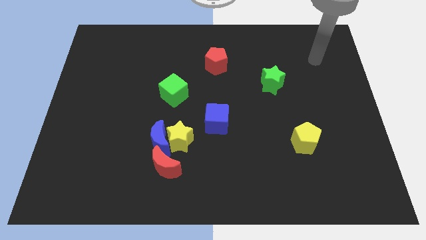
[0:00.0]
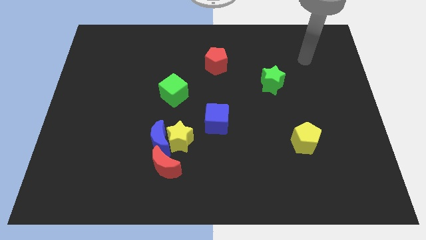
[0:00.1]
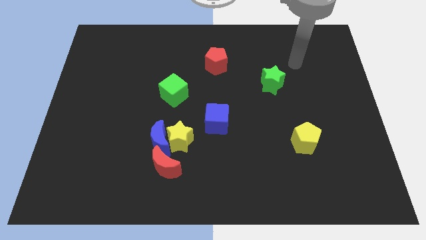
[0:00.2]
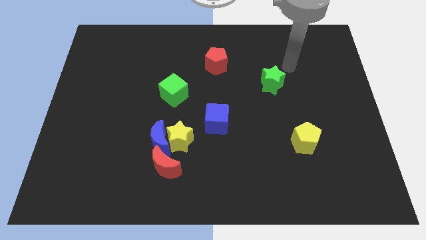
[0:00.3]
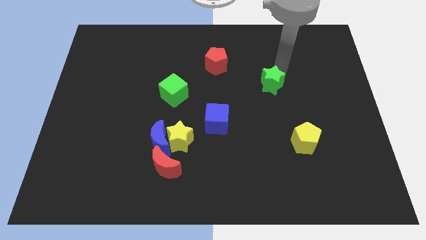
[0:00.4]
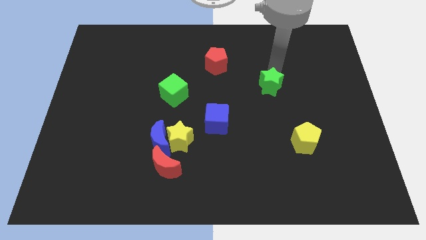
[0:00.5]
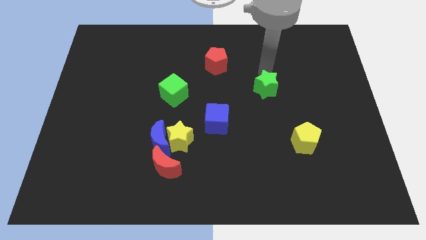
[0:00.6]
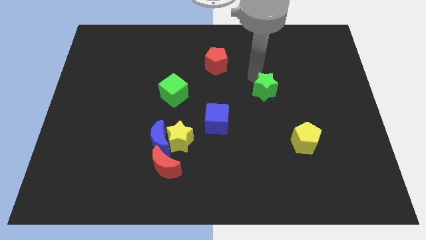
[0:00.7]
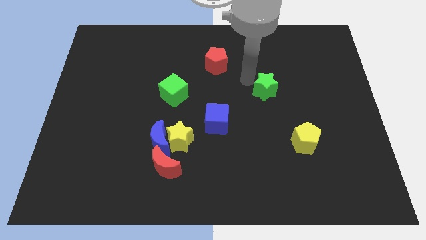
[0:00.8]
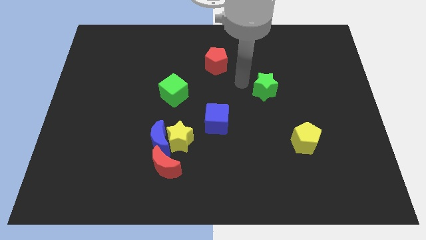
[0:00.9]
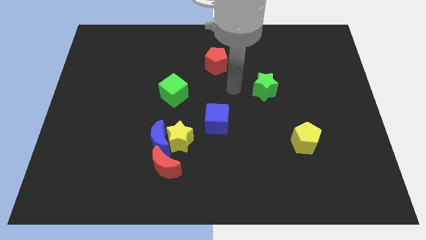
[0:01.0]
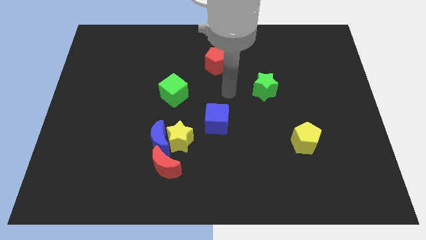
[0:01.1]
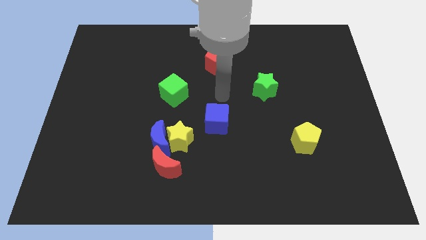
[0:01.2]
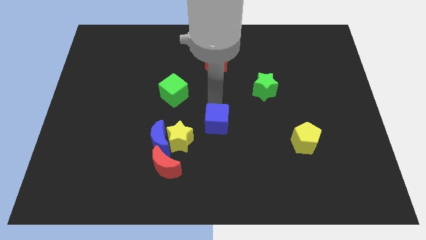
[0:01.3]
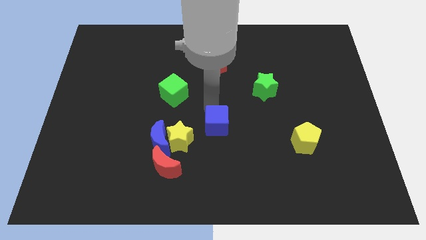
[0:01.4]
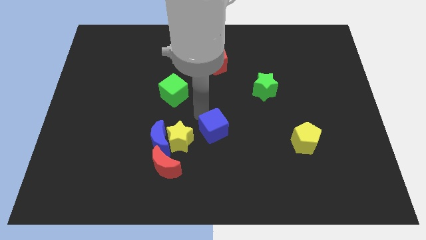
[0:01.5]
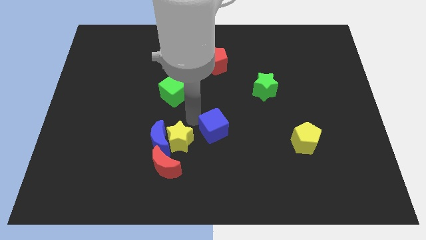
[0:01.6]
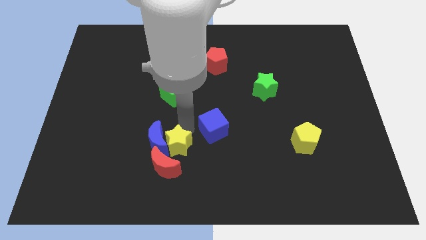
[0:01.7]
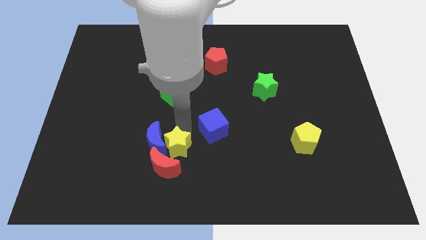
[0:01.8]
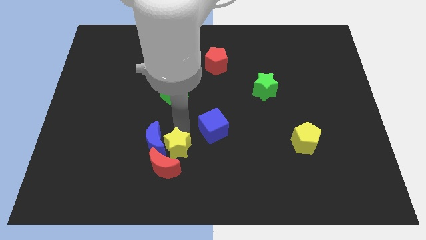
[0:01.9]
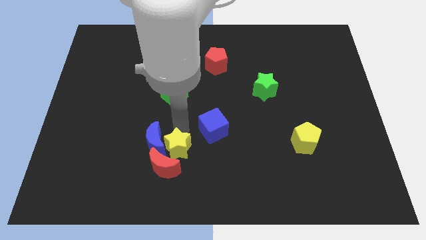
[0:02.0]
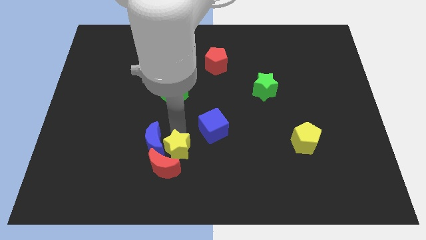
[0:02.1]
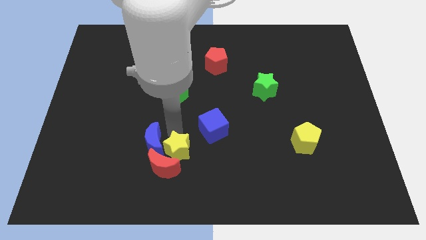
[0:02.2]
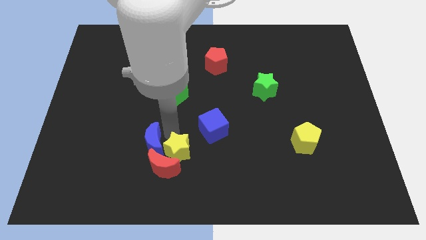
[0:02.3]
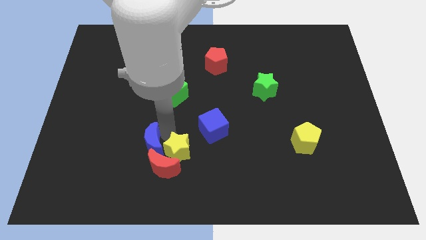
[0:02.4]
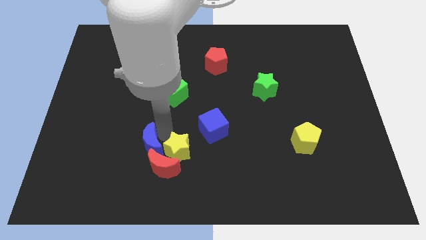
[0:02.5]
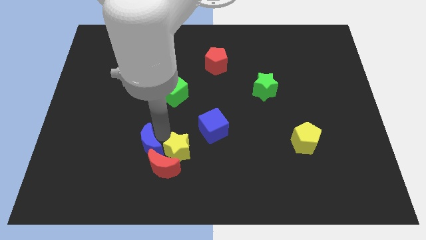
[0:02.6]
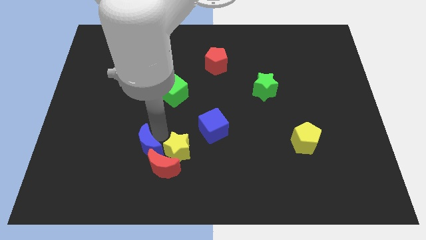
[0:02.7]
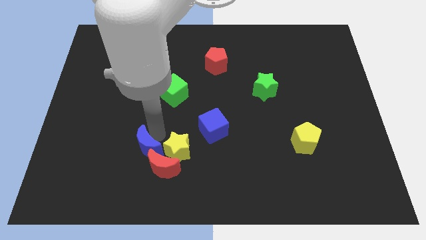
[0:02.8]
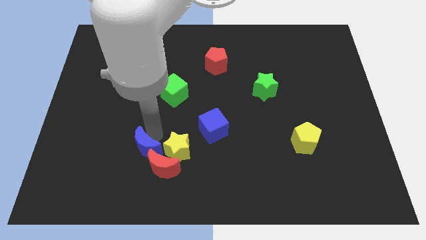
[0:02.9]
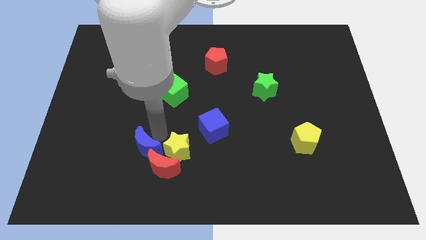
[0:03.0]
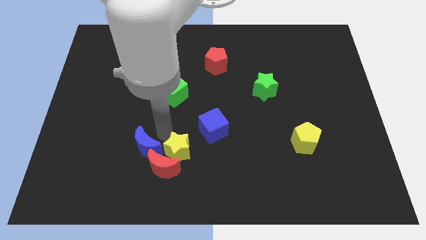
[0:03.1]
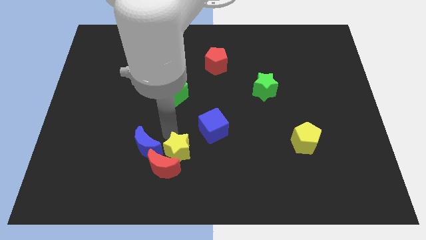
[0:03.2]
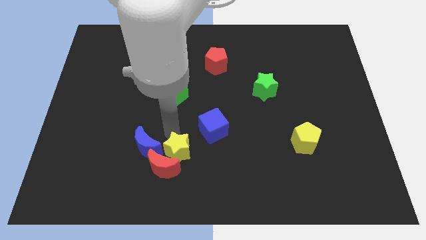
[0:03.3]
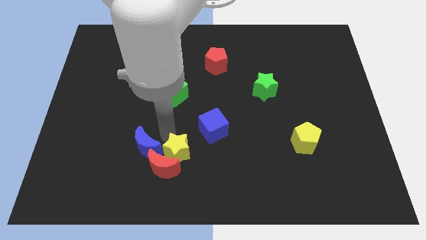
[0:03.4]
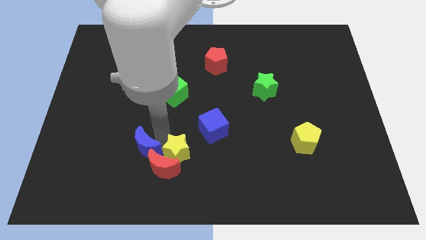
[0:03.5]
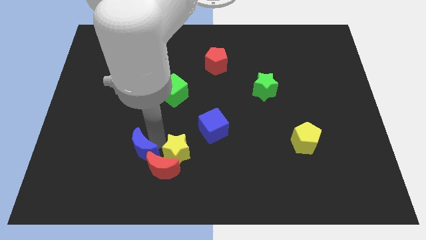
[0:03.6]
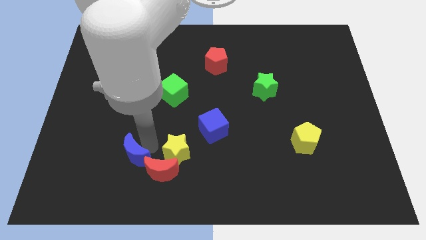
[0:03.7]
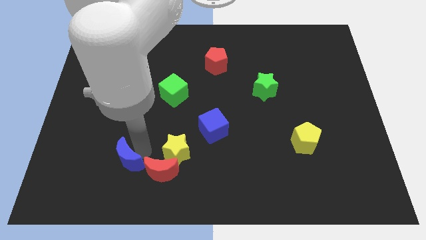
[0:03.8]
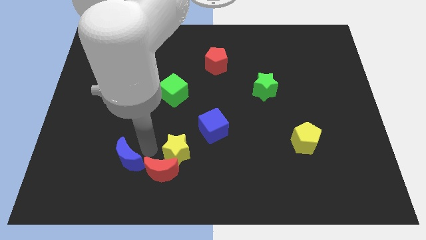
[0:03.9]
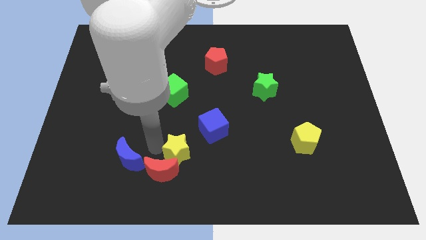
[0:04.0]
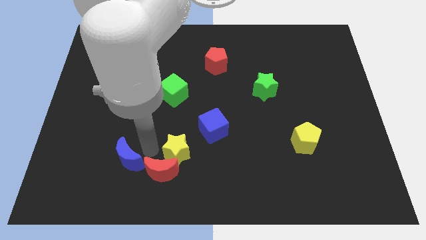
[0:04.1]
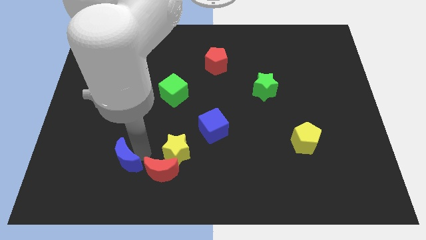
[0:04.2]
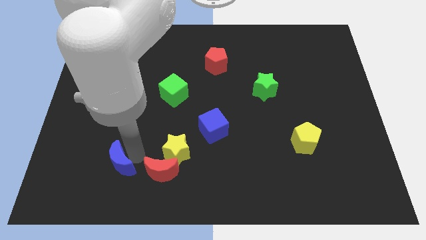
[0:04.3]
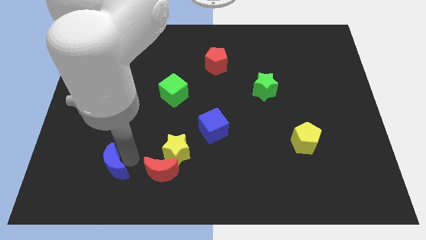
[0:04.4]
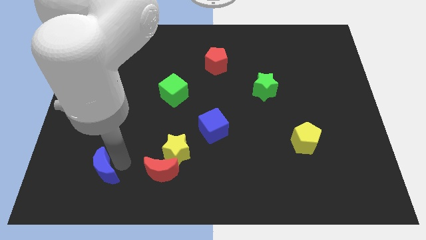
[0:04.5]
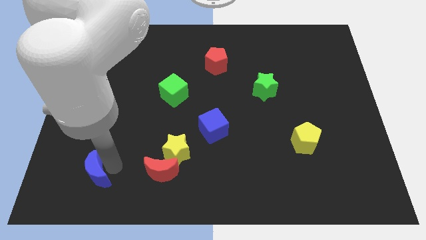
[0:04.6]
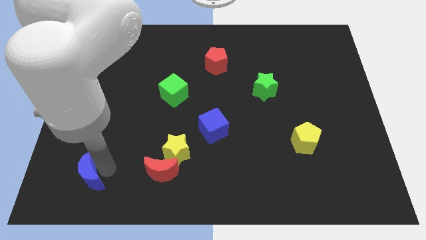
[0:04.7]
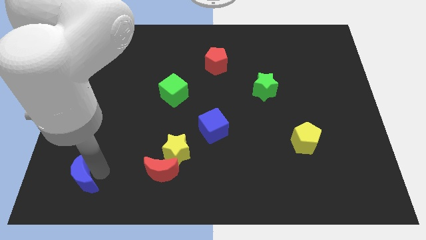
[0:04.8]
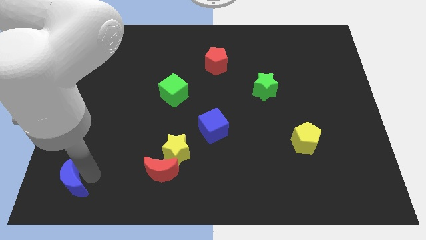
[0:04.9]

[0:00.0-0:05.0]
push the blue moon to the bottom left of the board

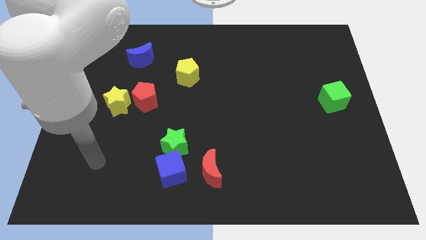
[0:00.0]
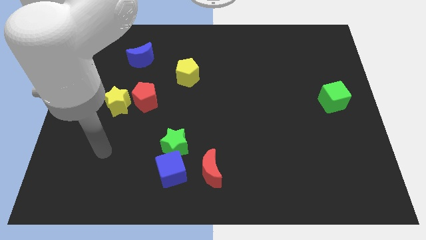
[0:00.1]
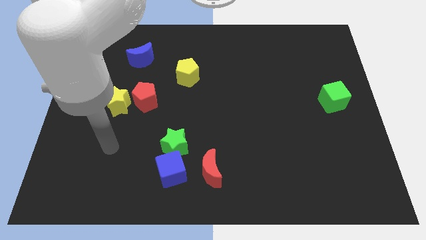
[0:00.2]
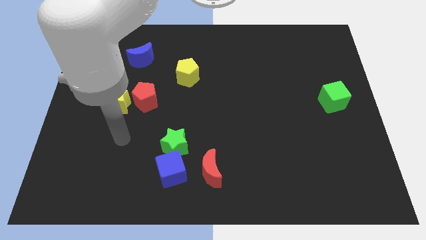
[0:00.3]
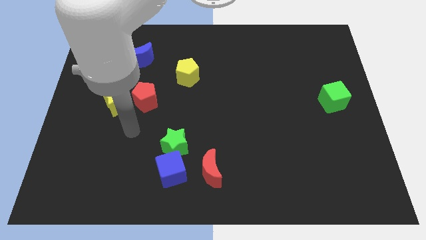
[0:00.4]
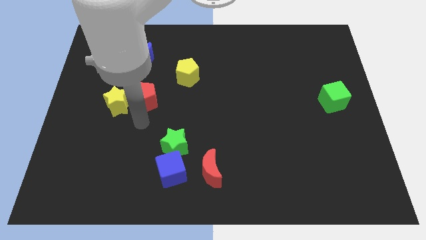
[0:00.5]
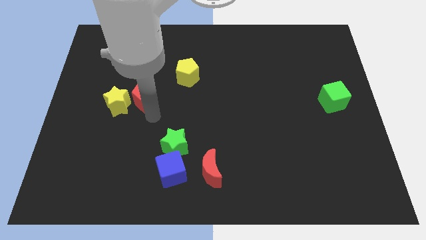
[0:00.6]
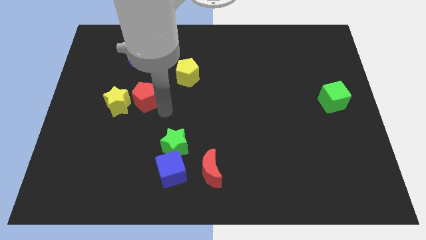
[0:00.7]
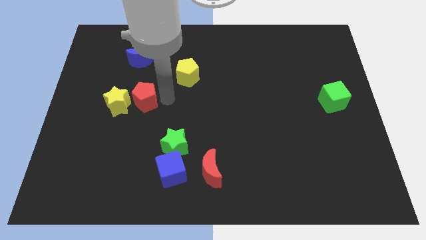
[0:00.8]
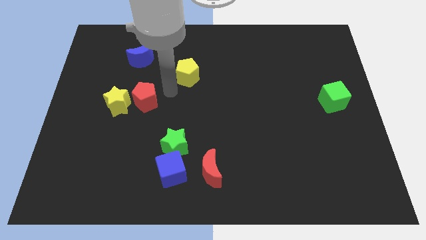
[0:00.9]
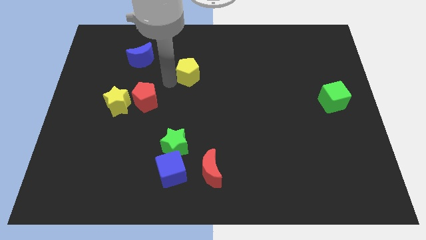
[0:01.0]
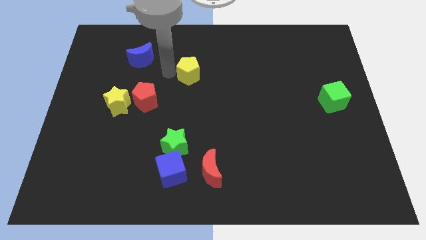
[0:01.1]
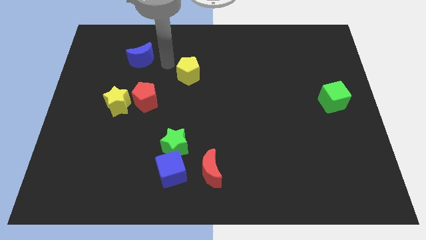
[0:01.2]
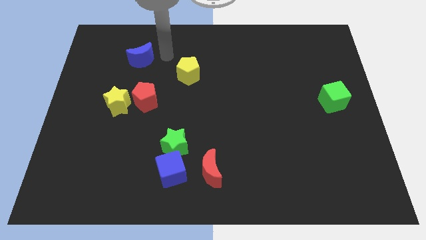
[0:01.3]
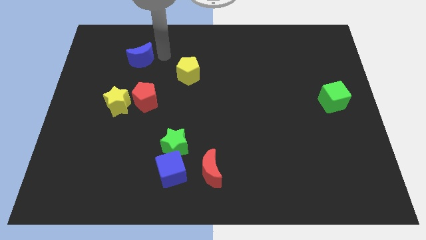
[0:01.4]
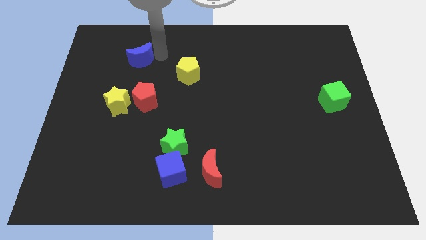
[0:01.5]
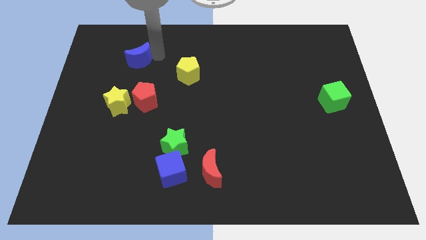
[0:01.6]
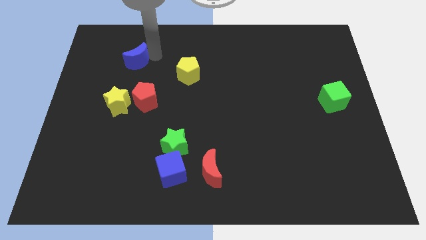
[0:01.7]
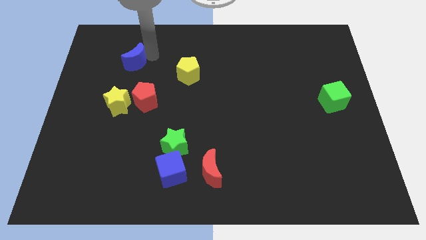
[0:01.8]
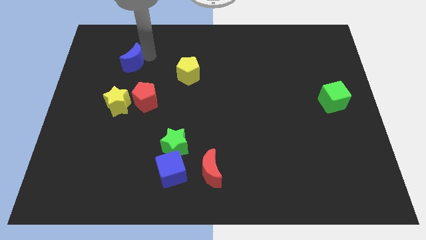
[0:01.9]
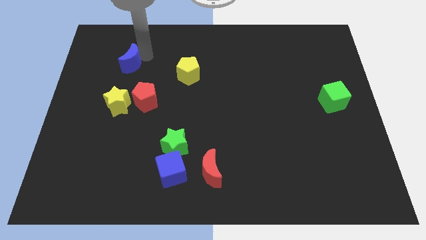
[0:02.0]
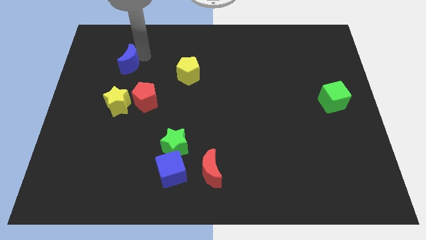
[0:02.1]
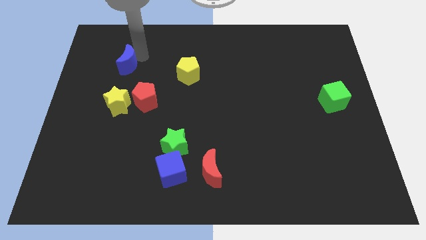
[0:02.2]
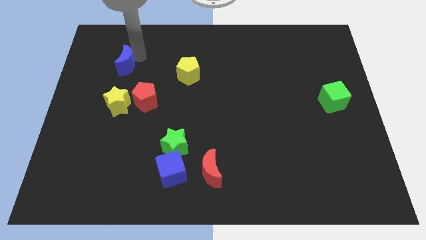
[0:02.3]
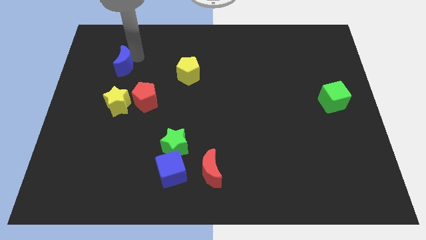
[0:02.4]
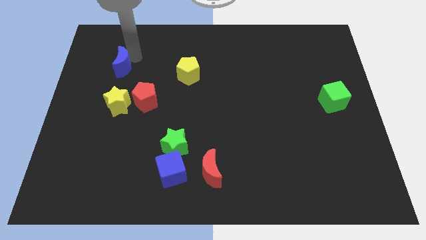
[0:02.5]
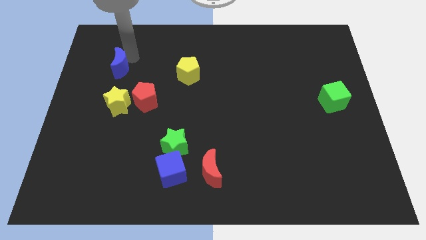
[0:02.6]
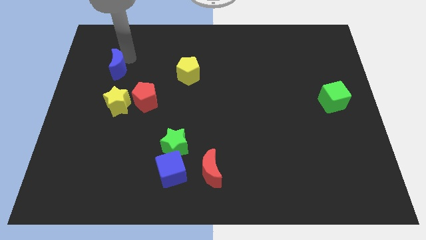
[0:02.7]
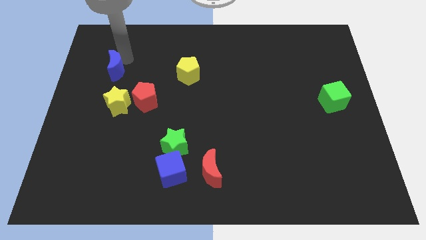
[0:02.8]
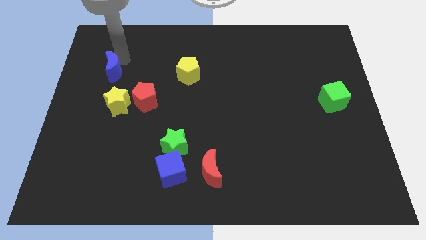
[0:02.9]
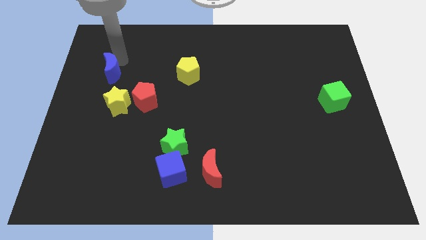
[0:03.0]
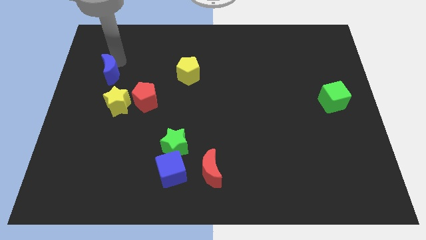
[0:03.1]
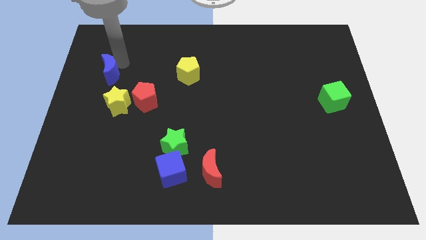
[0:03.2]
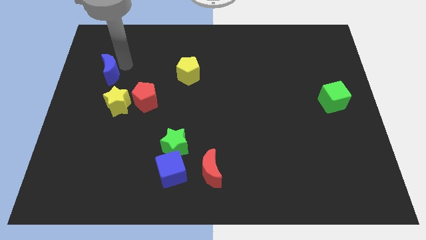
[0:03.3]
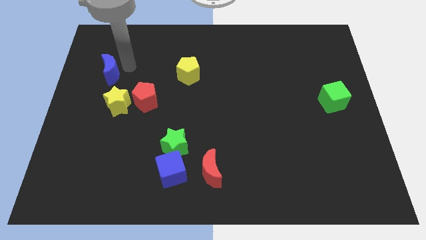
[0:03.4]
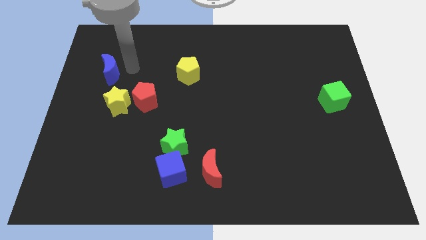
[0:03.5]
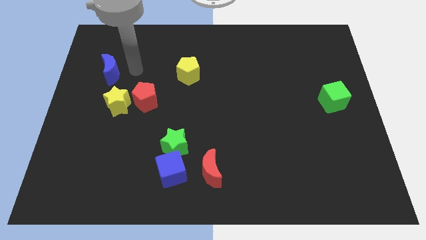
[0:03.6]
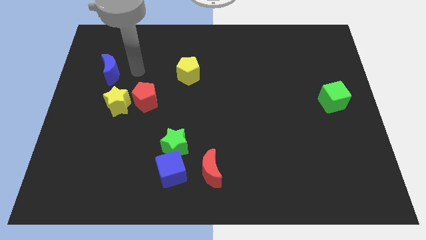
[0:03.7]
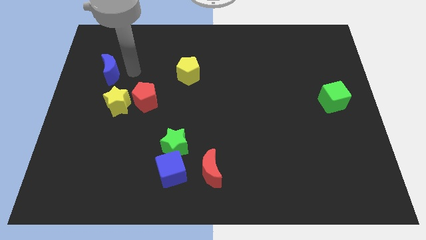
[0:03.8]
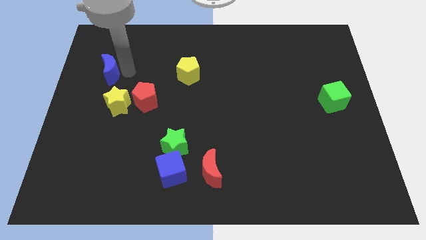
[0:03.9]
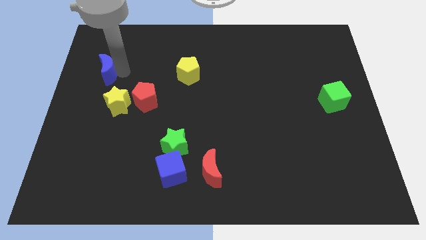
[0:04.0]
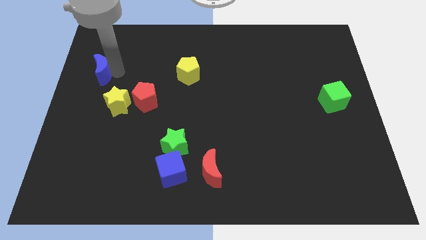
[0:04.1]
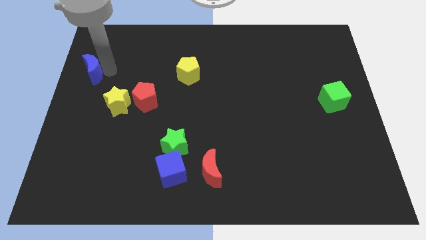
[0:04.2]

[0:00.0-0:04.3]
move the blue moon to the left side
